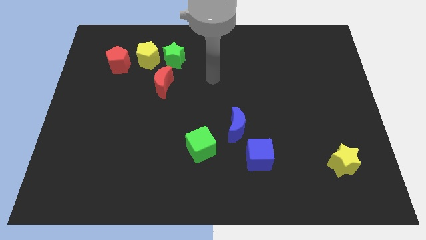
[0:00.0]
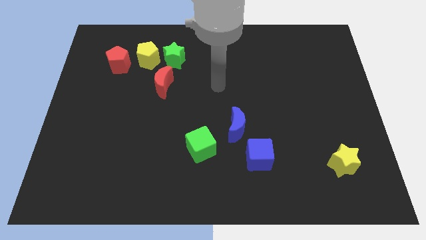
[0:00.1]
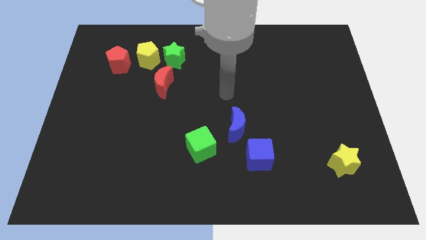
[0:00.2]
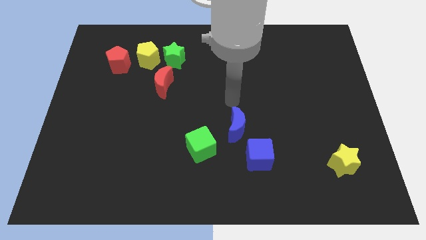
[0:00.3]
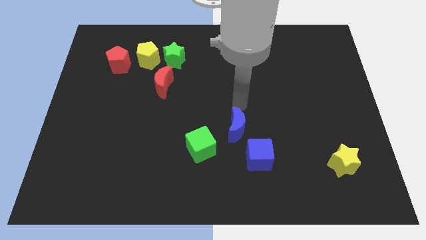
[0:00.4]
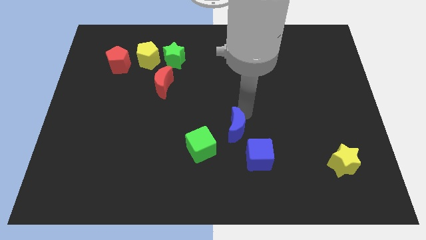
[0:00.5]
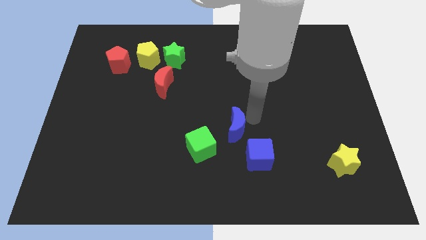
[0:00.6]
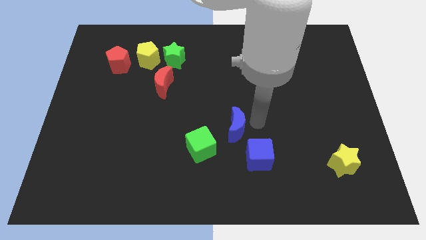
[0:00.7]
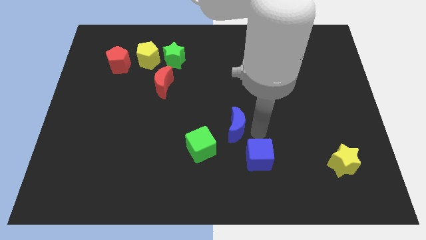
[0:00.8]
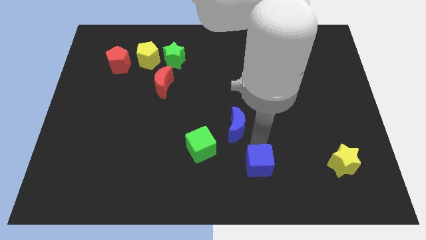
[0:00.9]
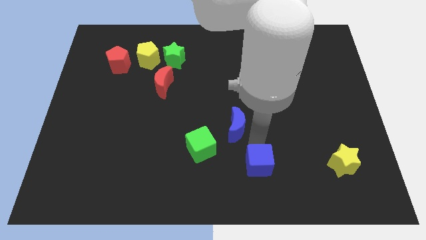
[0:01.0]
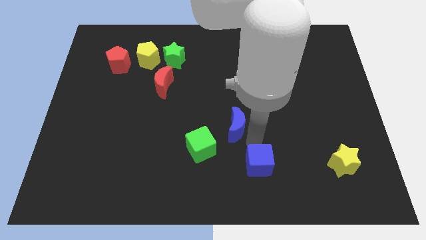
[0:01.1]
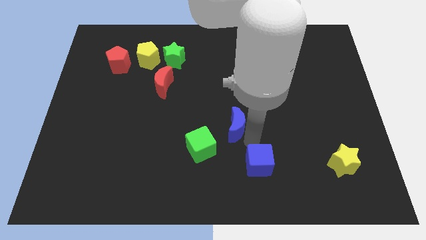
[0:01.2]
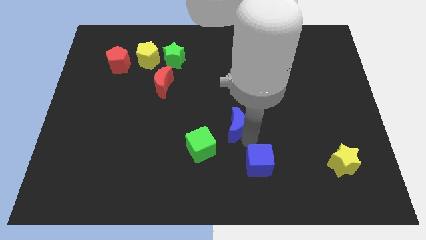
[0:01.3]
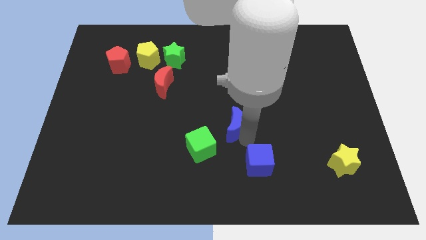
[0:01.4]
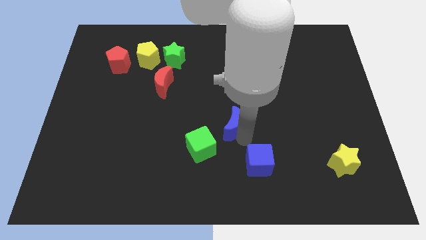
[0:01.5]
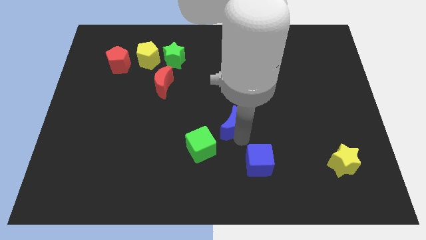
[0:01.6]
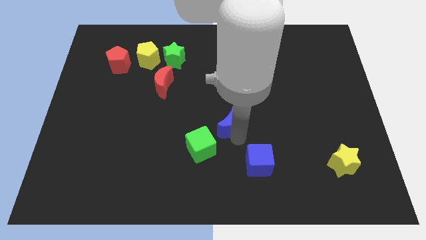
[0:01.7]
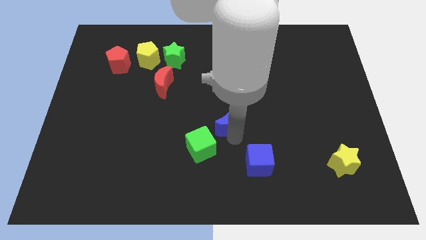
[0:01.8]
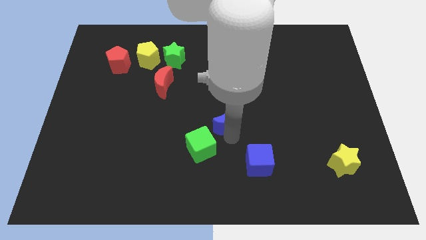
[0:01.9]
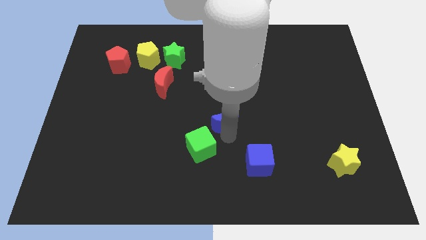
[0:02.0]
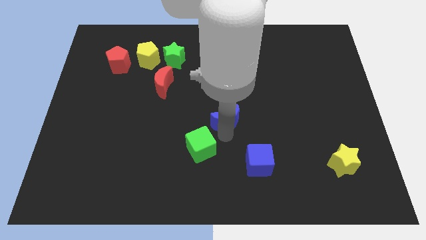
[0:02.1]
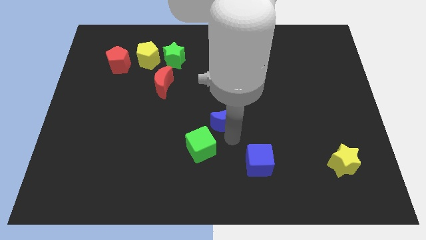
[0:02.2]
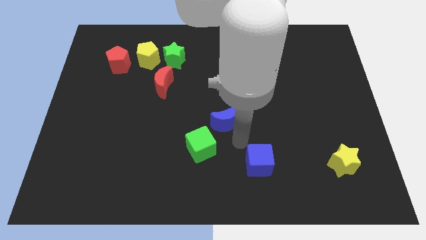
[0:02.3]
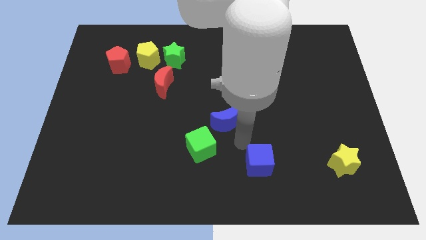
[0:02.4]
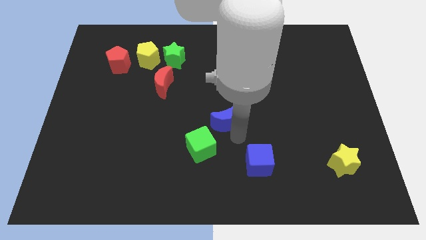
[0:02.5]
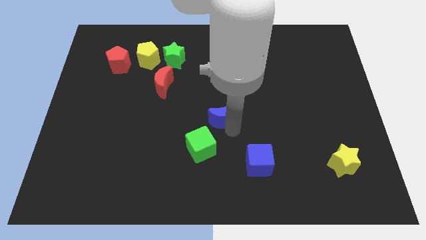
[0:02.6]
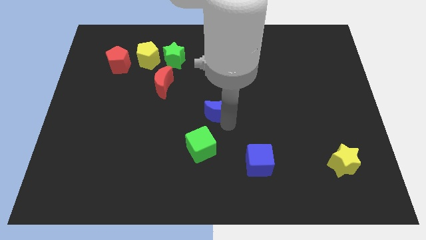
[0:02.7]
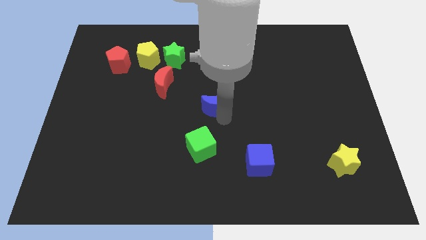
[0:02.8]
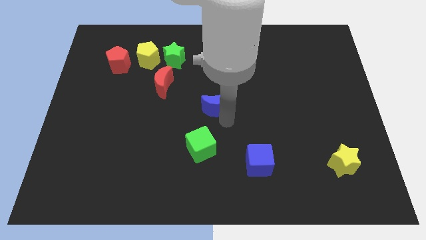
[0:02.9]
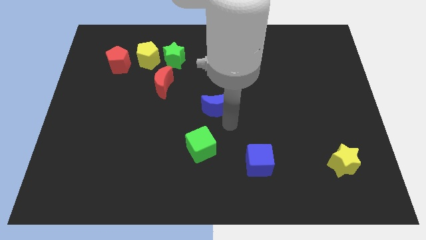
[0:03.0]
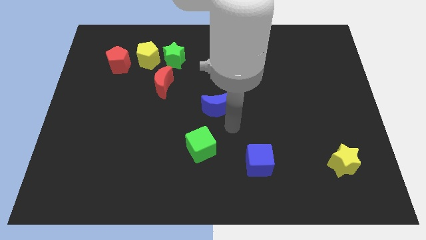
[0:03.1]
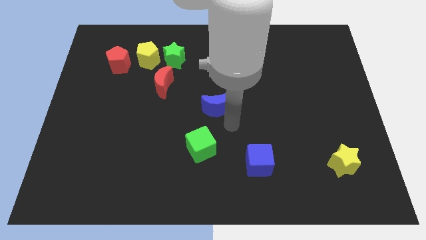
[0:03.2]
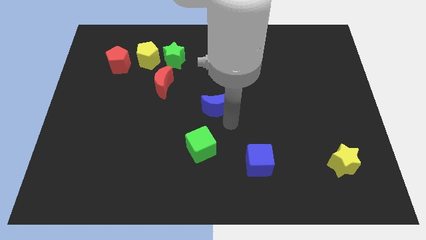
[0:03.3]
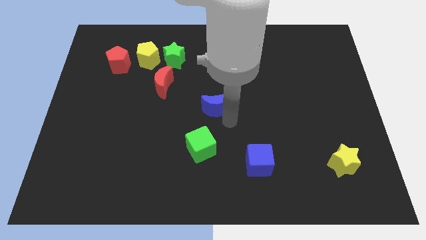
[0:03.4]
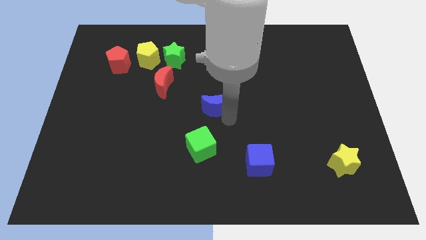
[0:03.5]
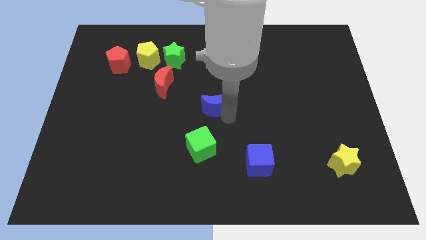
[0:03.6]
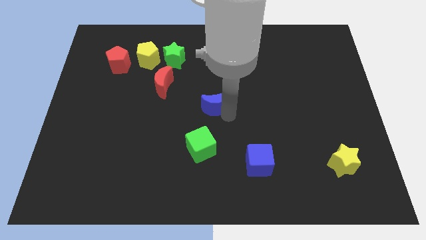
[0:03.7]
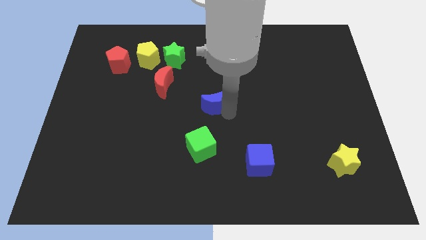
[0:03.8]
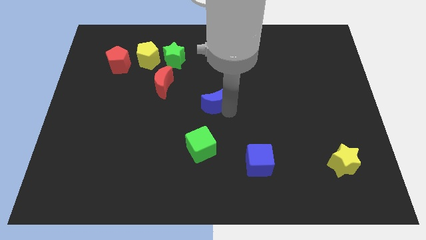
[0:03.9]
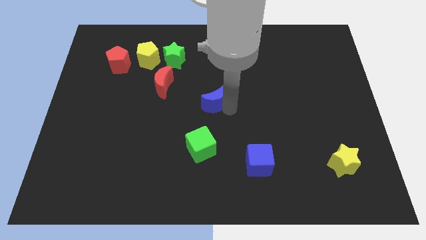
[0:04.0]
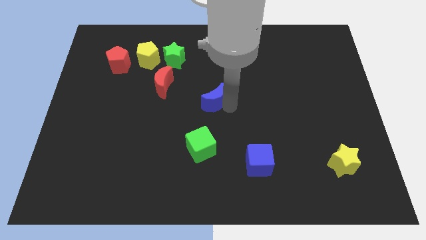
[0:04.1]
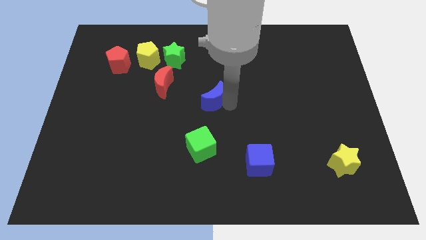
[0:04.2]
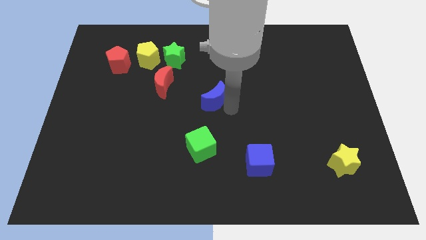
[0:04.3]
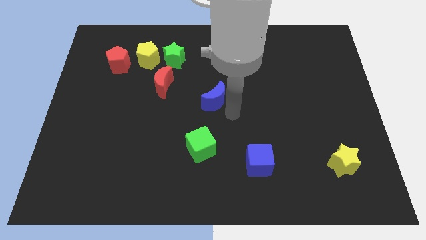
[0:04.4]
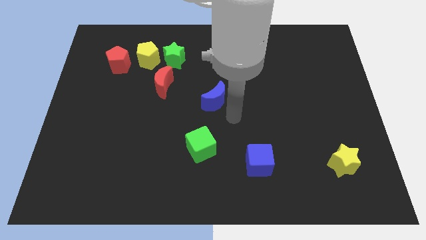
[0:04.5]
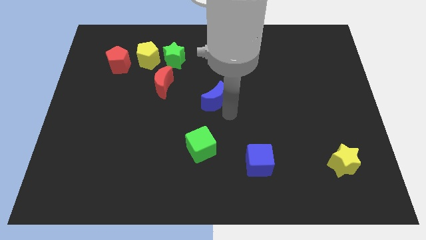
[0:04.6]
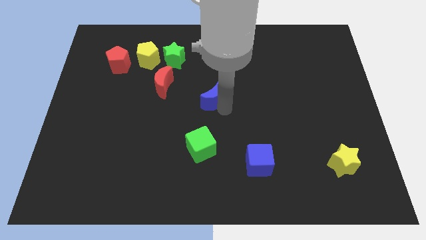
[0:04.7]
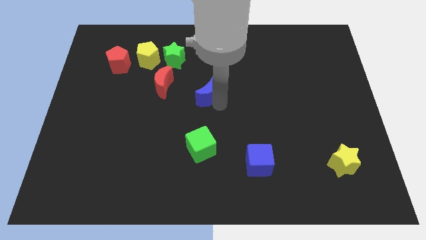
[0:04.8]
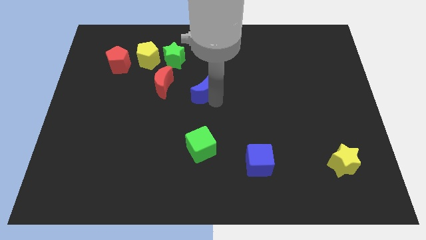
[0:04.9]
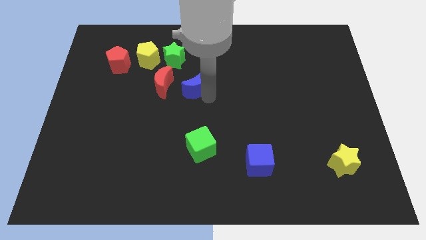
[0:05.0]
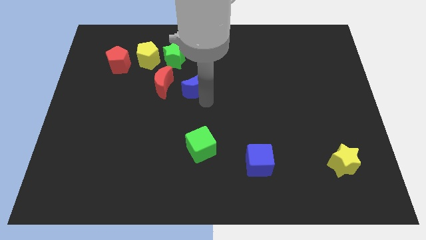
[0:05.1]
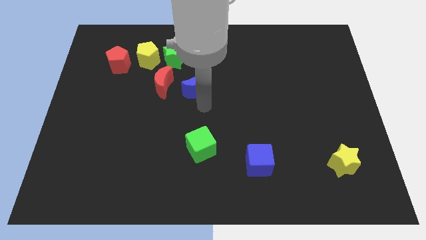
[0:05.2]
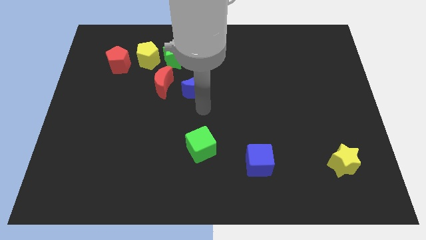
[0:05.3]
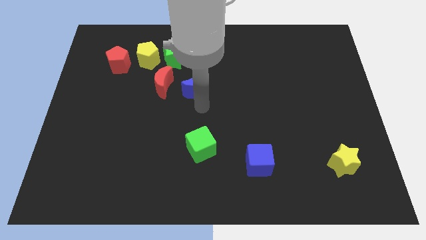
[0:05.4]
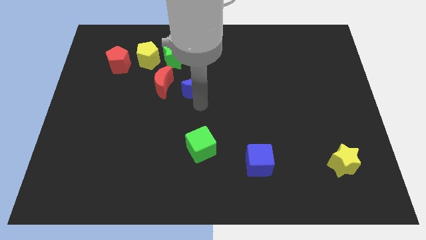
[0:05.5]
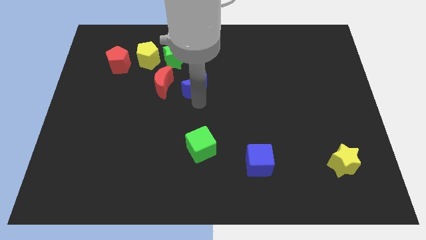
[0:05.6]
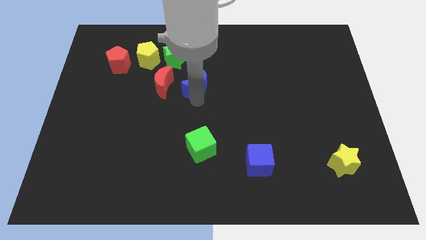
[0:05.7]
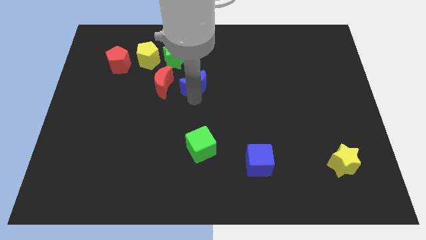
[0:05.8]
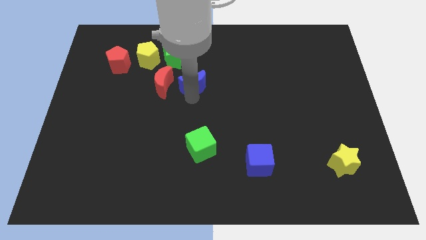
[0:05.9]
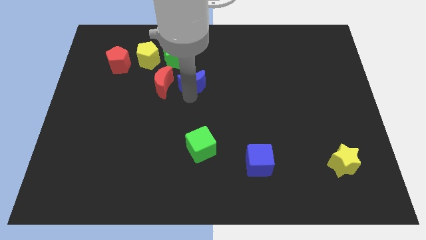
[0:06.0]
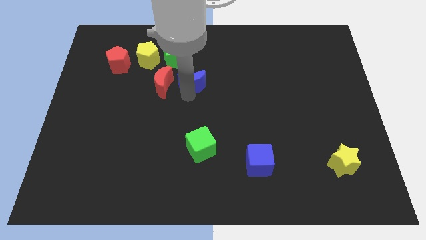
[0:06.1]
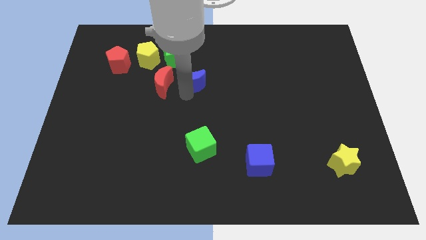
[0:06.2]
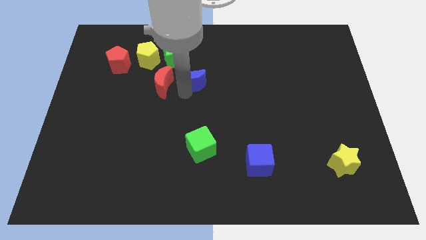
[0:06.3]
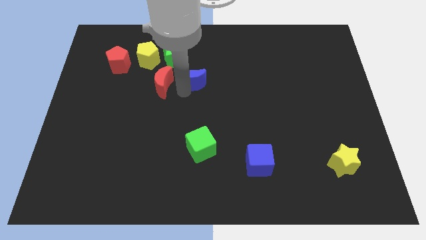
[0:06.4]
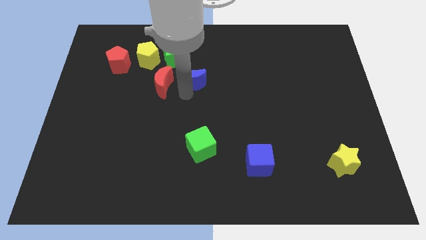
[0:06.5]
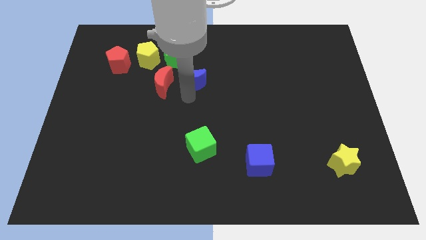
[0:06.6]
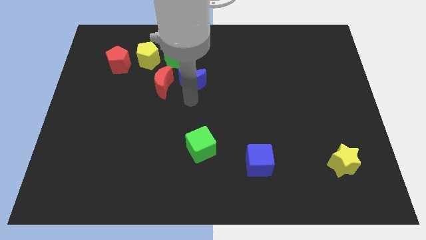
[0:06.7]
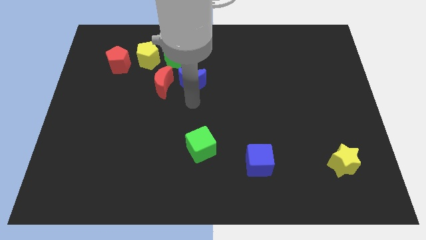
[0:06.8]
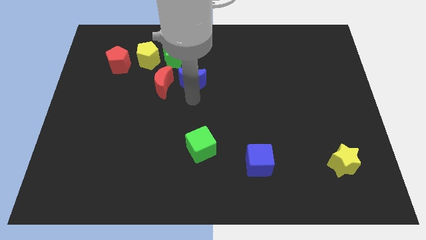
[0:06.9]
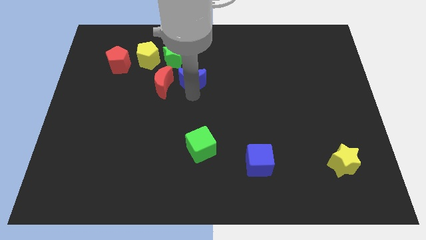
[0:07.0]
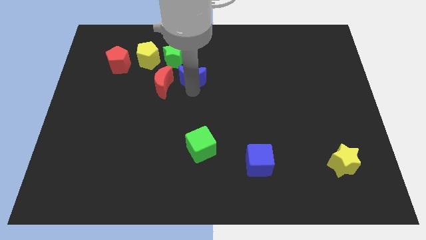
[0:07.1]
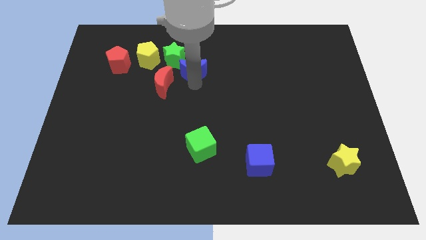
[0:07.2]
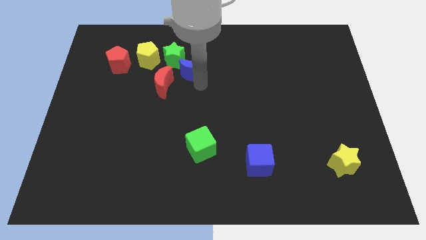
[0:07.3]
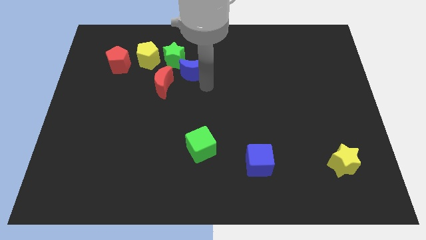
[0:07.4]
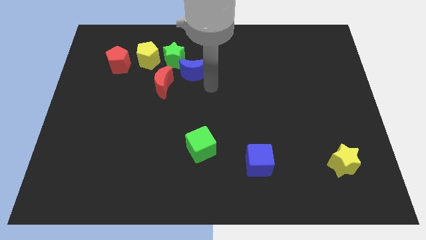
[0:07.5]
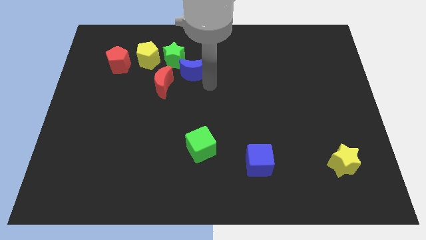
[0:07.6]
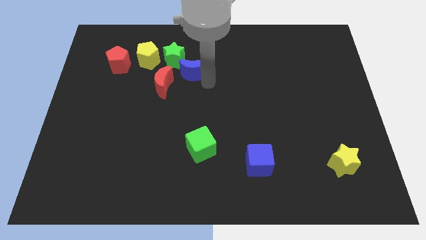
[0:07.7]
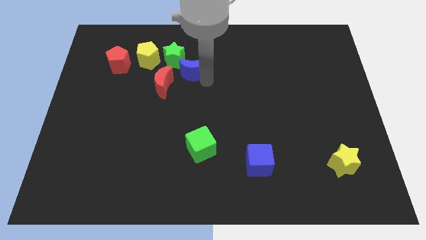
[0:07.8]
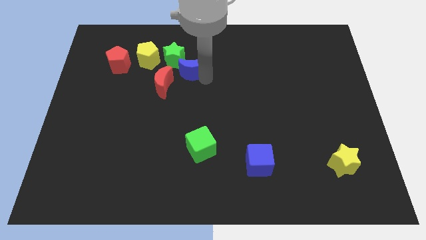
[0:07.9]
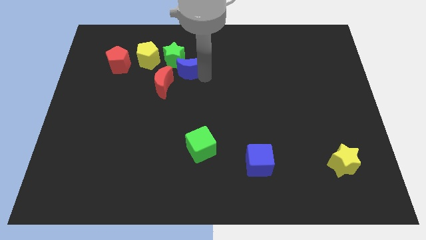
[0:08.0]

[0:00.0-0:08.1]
slide the blue moon close to the green star
